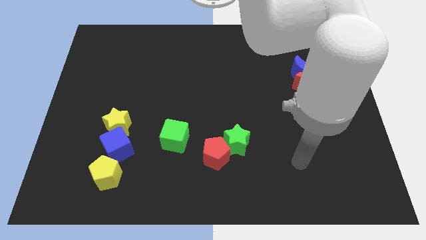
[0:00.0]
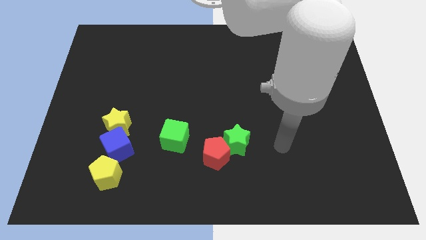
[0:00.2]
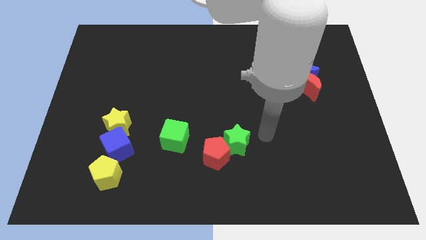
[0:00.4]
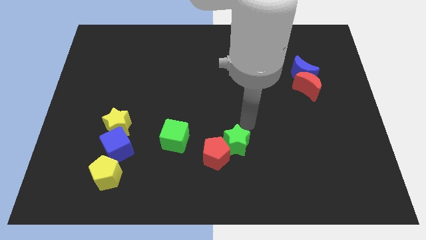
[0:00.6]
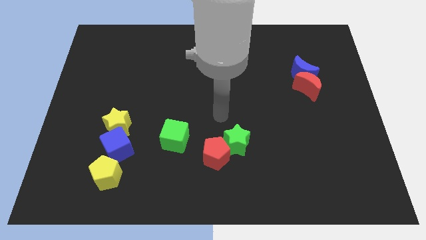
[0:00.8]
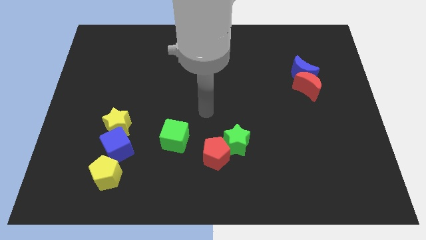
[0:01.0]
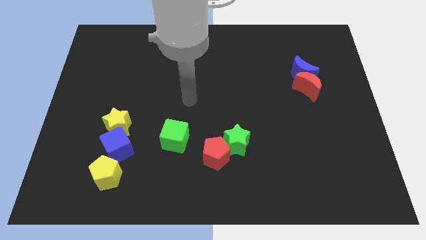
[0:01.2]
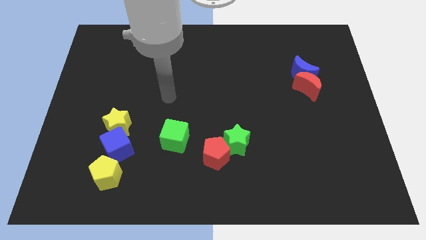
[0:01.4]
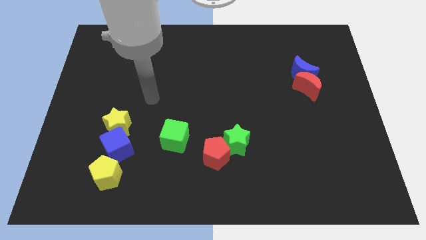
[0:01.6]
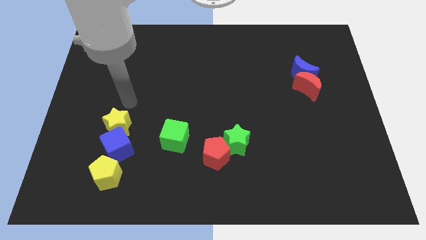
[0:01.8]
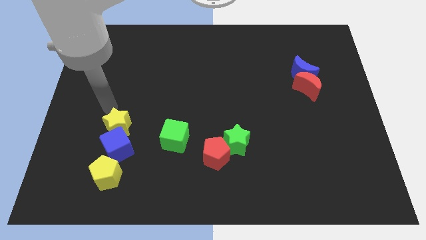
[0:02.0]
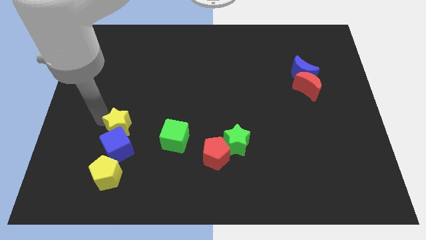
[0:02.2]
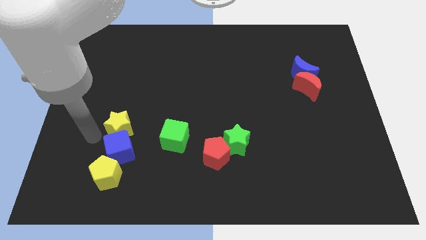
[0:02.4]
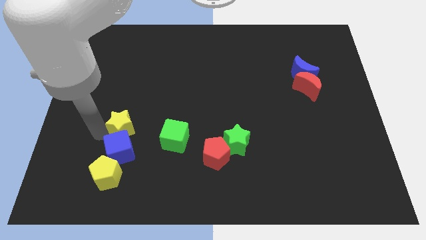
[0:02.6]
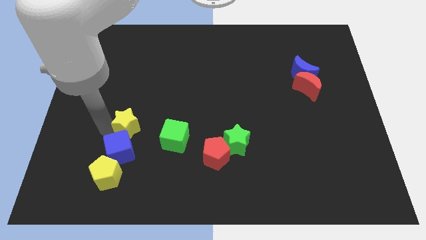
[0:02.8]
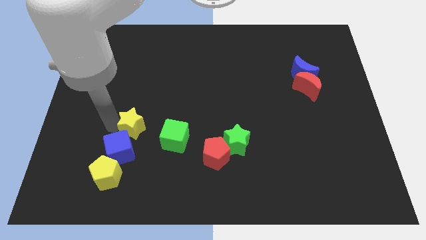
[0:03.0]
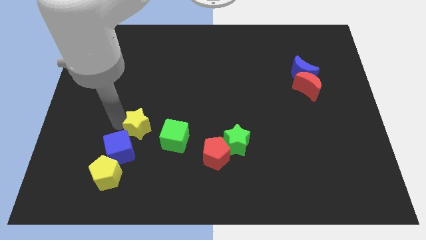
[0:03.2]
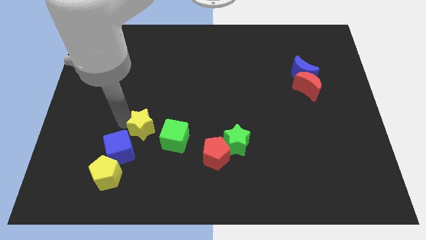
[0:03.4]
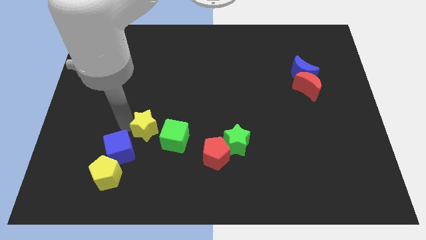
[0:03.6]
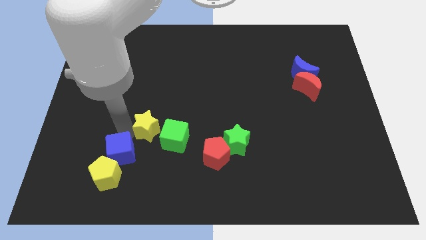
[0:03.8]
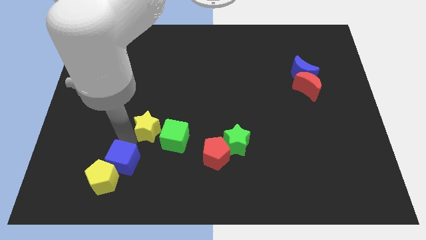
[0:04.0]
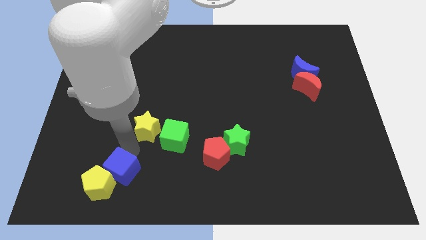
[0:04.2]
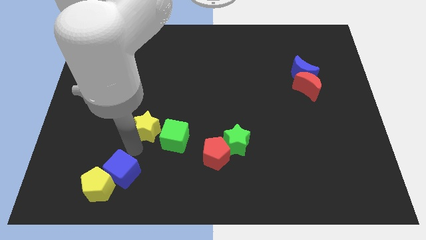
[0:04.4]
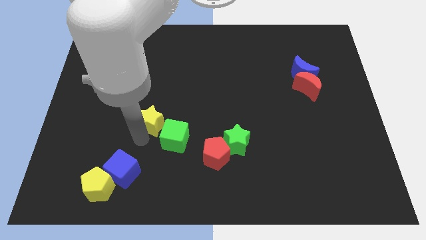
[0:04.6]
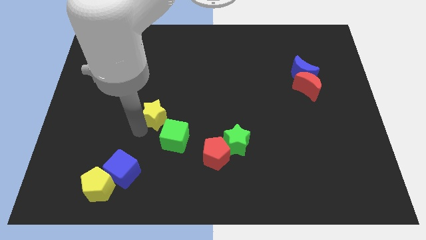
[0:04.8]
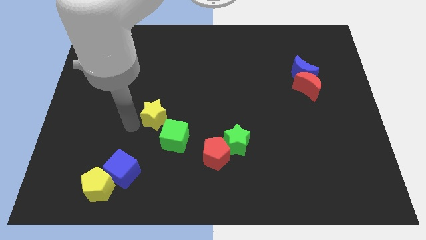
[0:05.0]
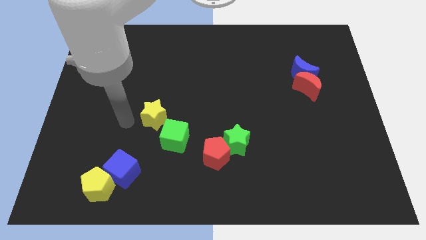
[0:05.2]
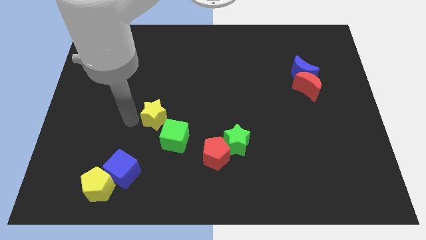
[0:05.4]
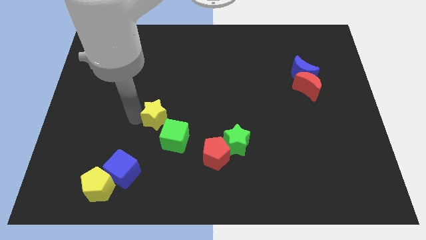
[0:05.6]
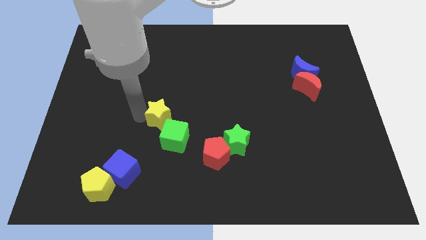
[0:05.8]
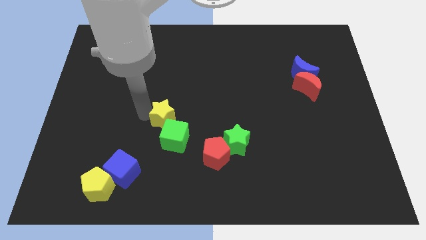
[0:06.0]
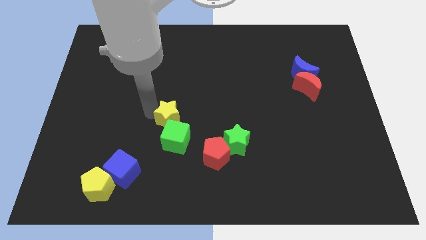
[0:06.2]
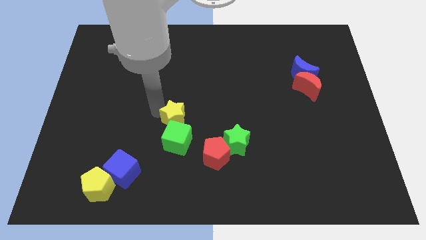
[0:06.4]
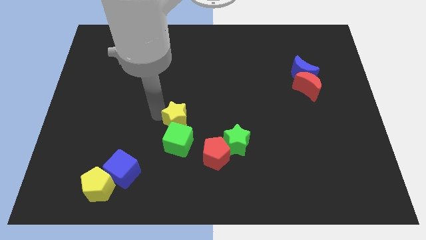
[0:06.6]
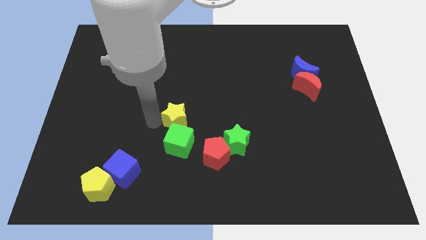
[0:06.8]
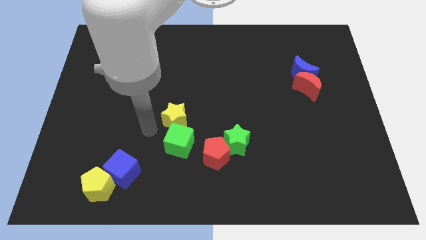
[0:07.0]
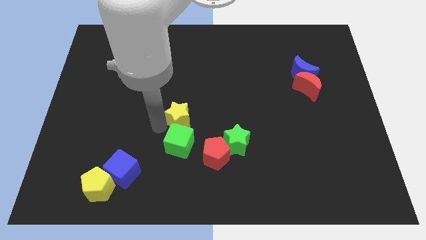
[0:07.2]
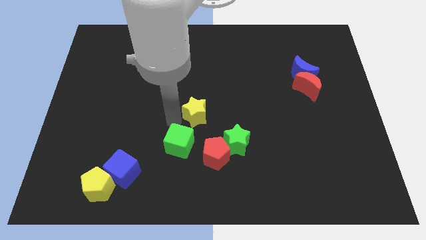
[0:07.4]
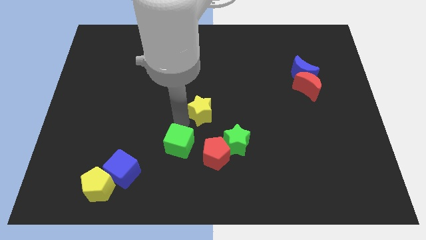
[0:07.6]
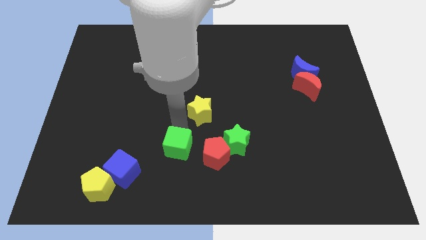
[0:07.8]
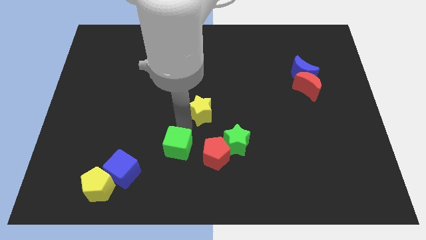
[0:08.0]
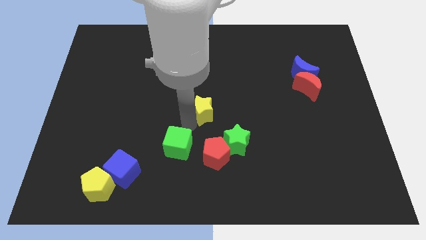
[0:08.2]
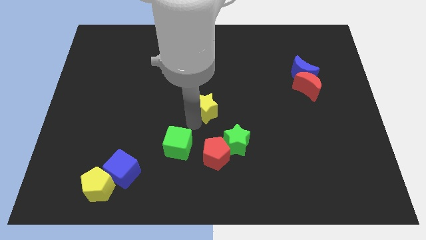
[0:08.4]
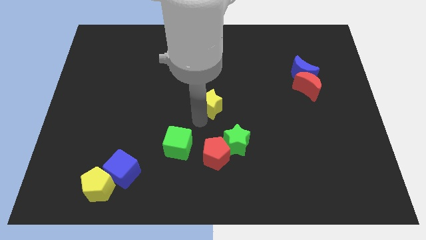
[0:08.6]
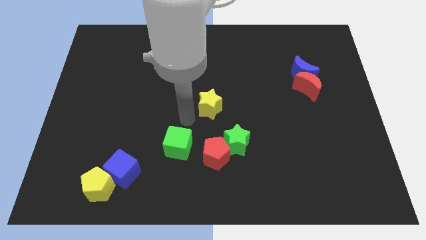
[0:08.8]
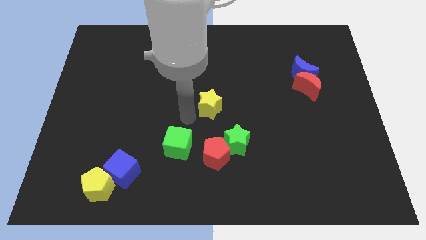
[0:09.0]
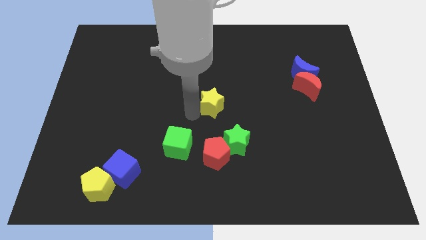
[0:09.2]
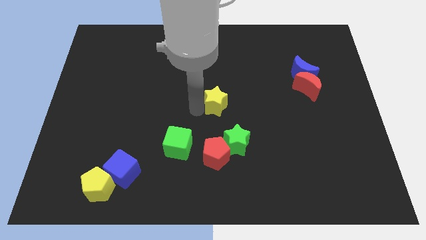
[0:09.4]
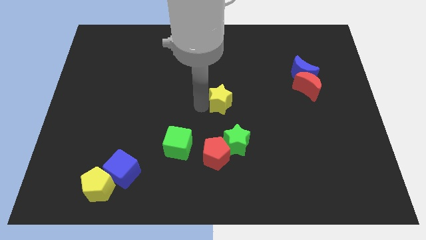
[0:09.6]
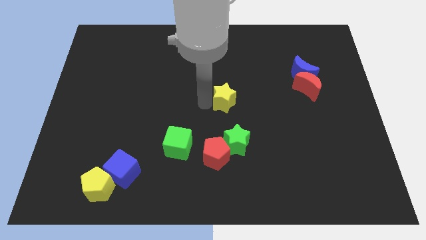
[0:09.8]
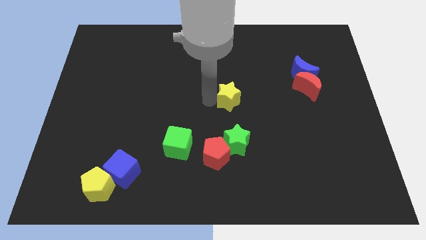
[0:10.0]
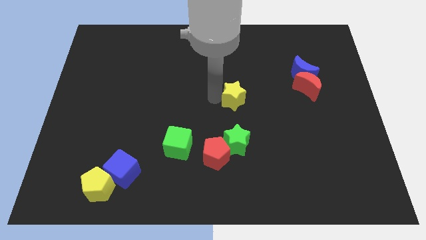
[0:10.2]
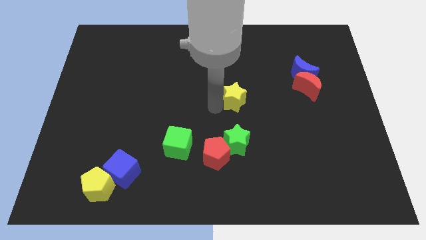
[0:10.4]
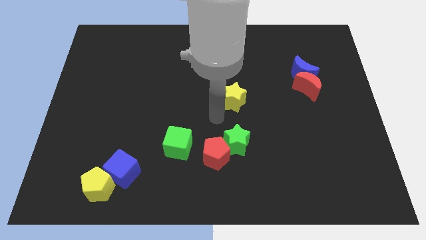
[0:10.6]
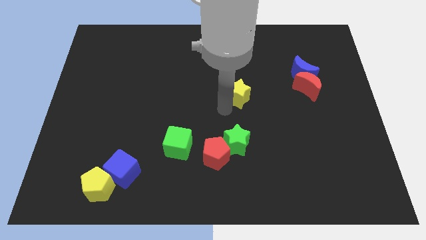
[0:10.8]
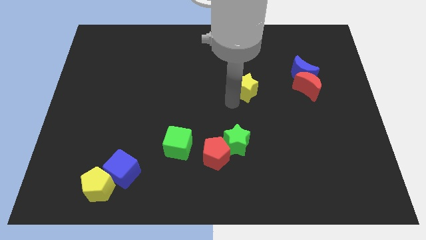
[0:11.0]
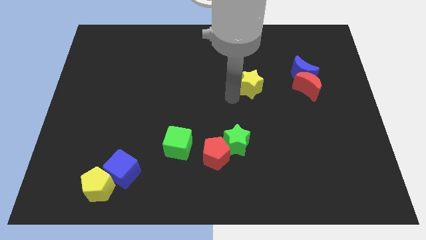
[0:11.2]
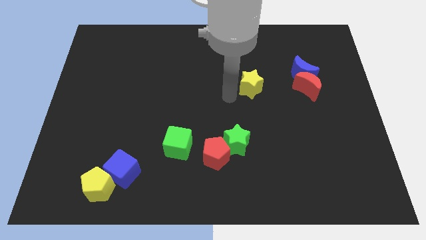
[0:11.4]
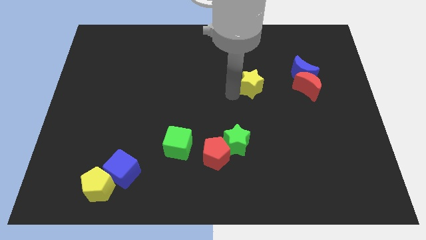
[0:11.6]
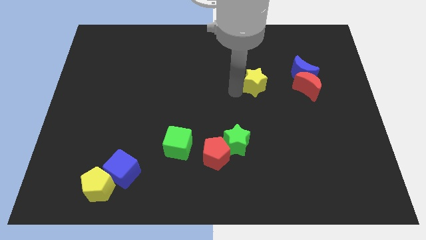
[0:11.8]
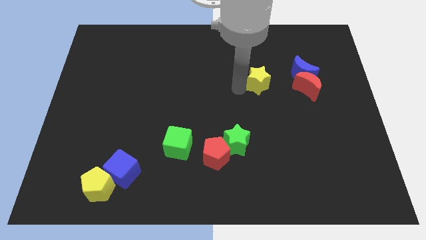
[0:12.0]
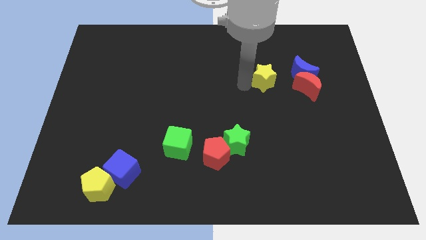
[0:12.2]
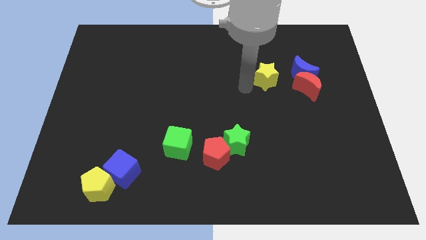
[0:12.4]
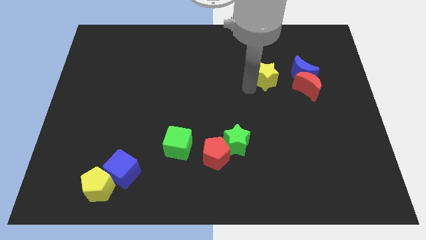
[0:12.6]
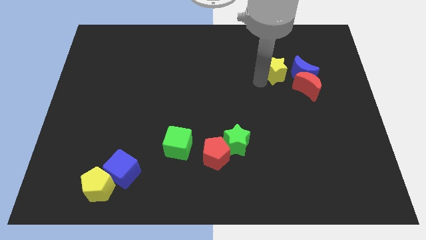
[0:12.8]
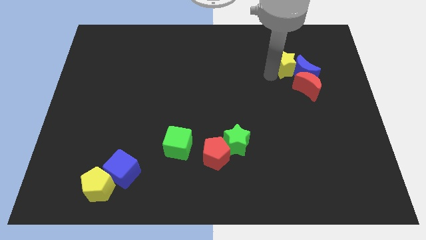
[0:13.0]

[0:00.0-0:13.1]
push the yellow star to the top side of the red moon

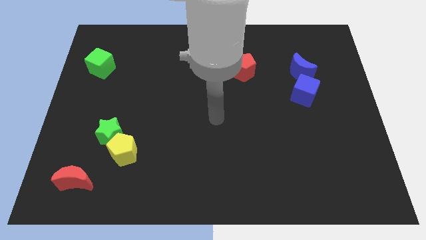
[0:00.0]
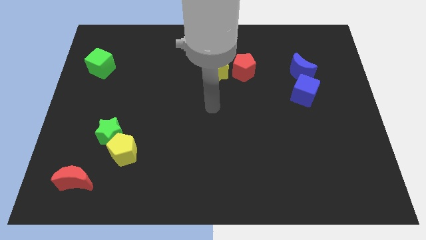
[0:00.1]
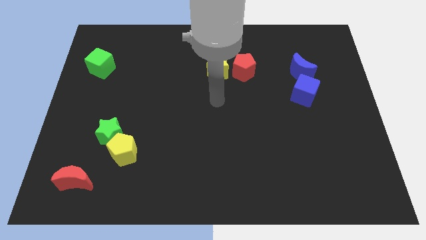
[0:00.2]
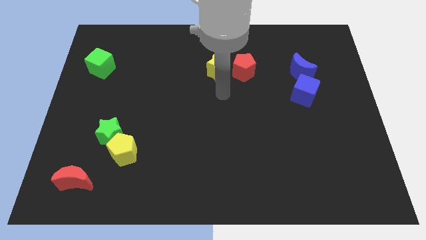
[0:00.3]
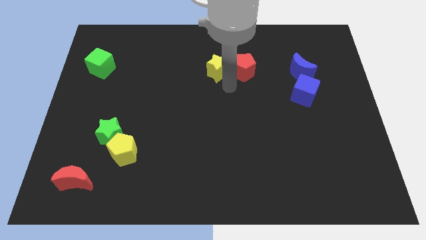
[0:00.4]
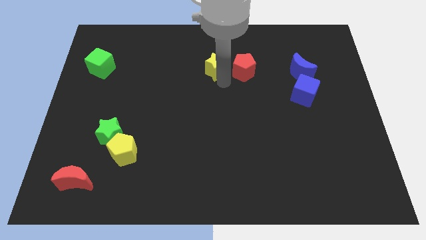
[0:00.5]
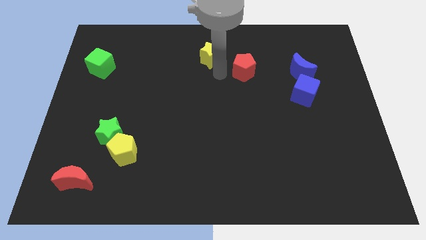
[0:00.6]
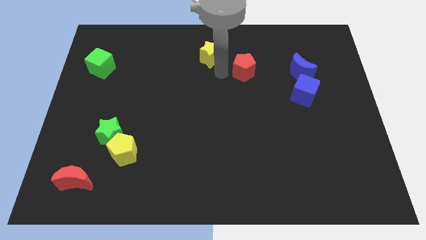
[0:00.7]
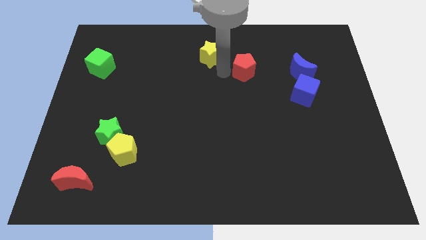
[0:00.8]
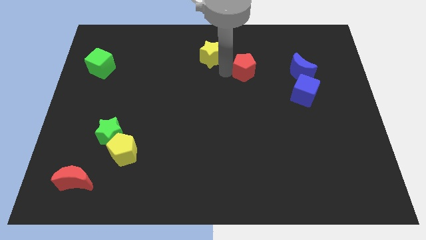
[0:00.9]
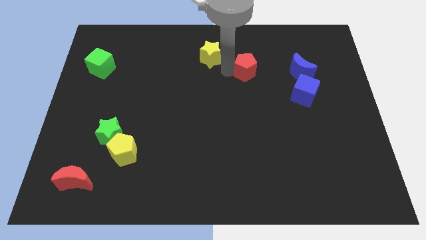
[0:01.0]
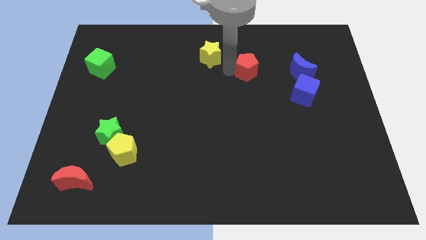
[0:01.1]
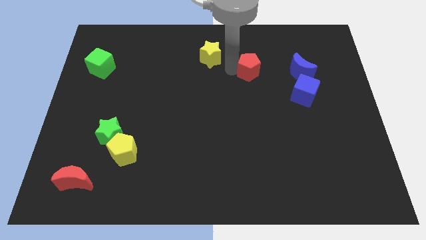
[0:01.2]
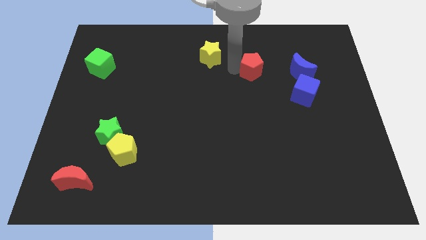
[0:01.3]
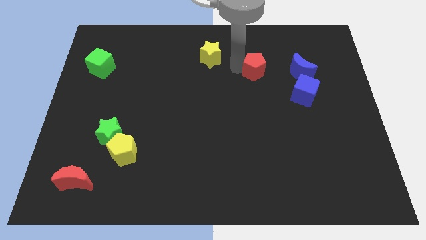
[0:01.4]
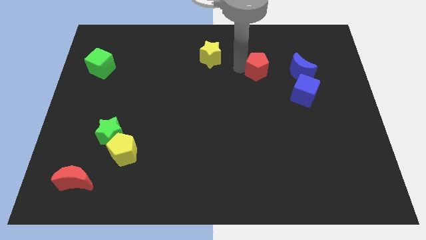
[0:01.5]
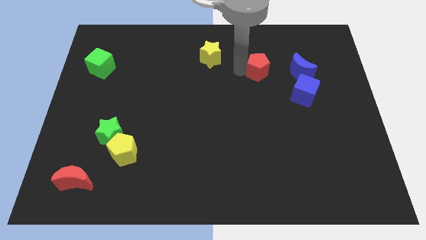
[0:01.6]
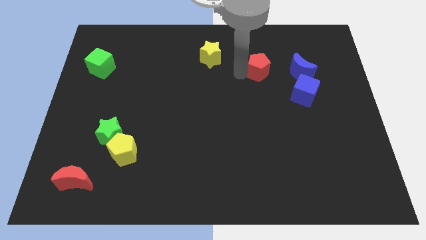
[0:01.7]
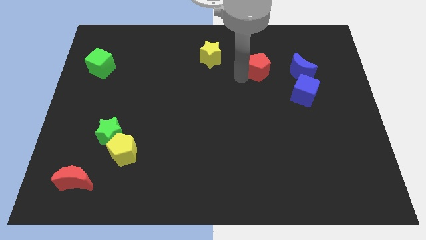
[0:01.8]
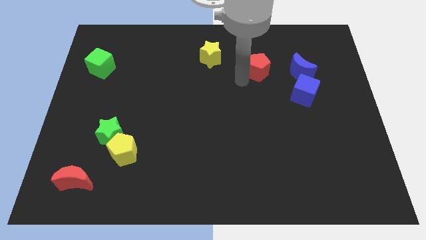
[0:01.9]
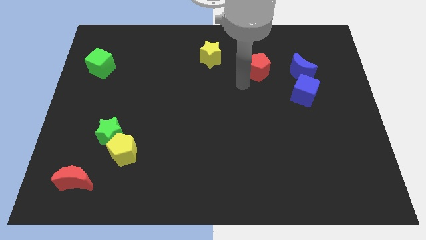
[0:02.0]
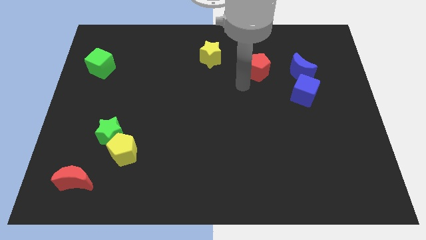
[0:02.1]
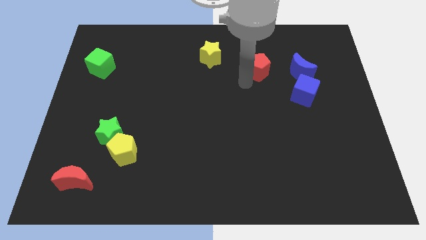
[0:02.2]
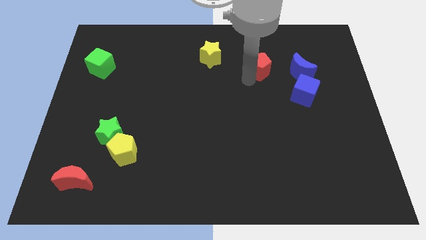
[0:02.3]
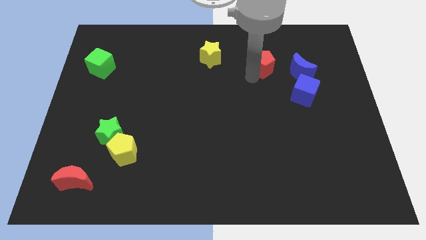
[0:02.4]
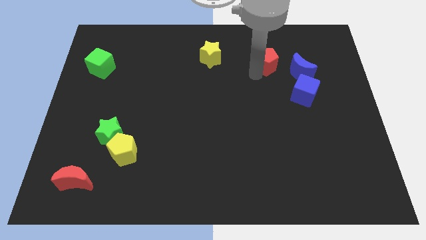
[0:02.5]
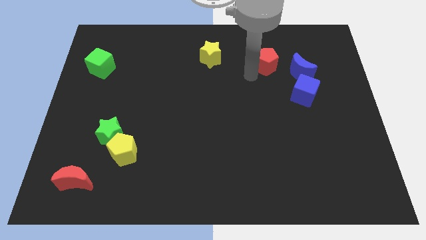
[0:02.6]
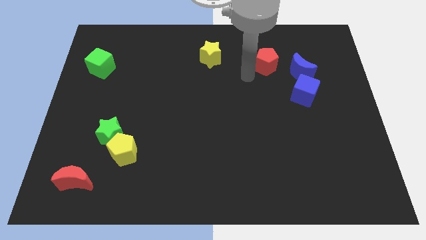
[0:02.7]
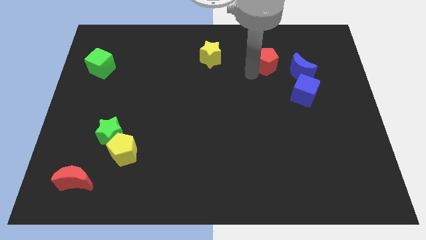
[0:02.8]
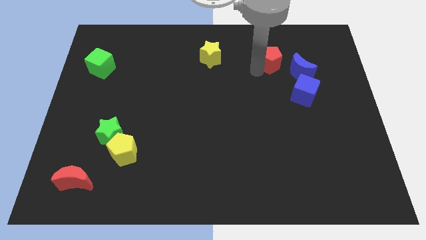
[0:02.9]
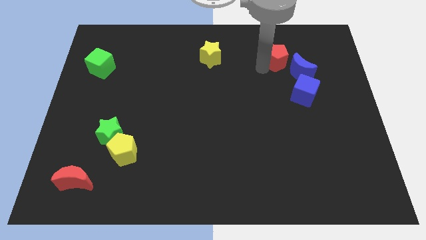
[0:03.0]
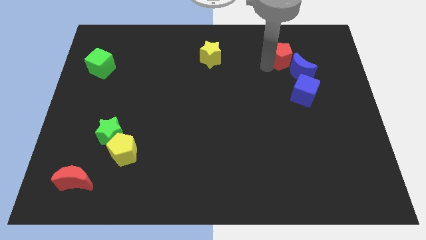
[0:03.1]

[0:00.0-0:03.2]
move the red pentagon above the blue cube
